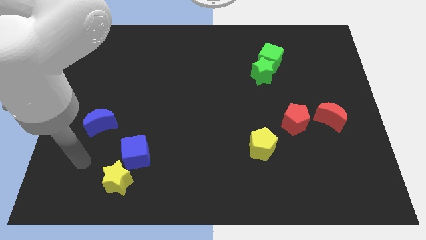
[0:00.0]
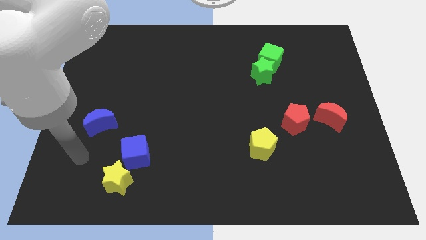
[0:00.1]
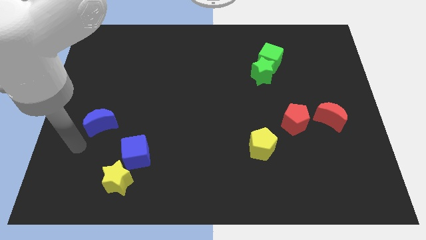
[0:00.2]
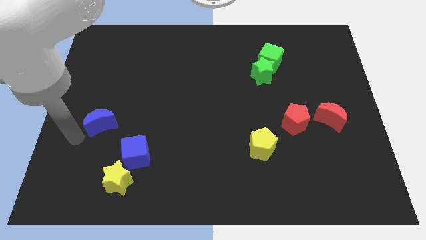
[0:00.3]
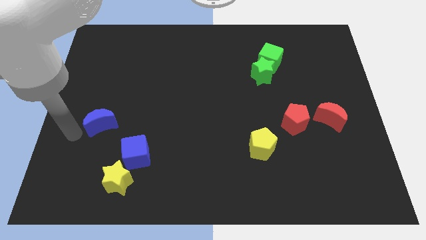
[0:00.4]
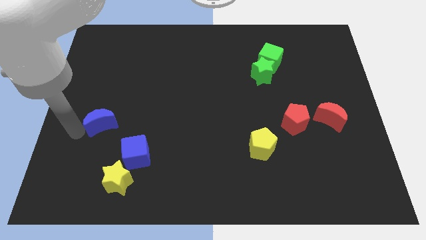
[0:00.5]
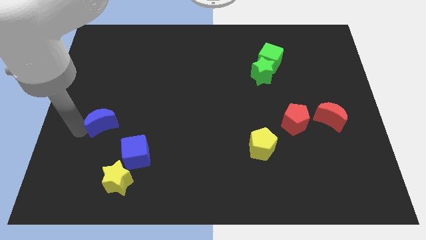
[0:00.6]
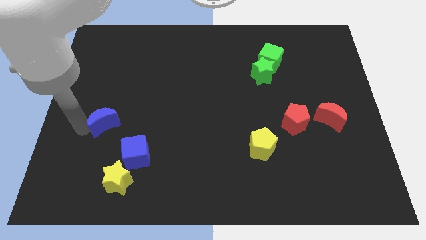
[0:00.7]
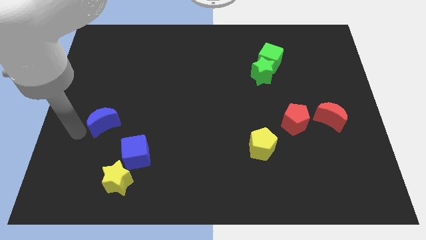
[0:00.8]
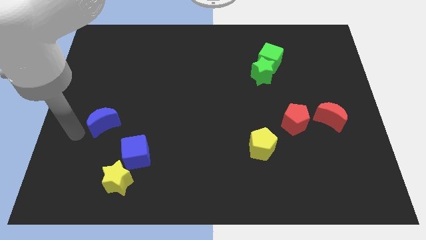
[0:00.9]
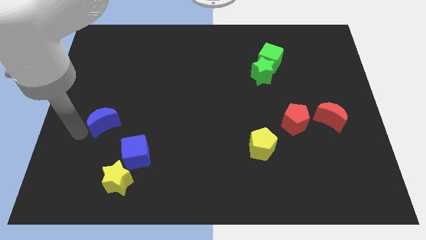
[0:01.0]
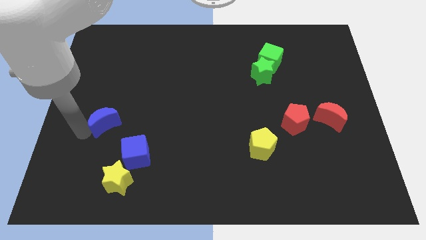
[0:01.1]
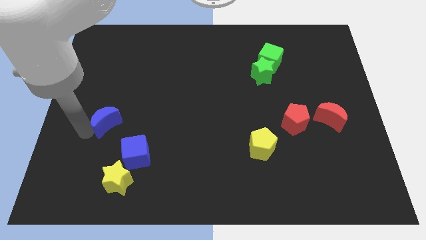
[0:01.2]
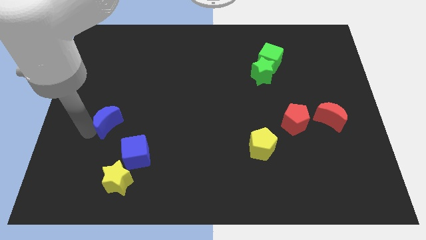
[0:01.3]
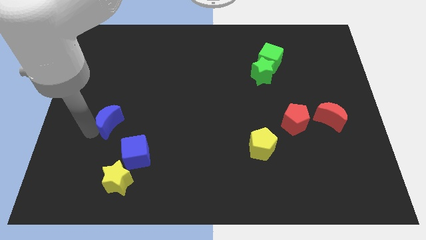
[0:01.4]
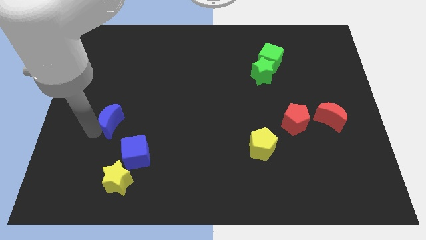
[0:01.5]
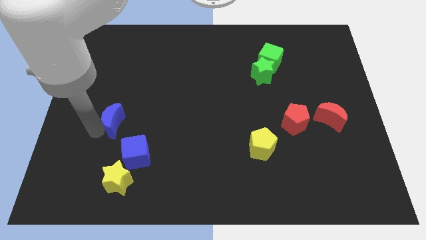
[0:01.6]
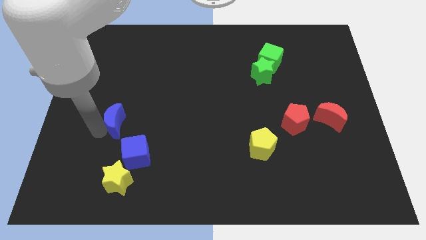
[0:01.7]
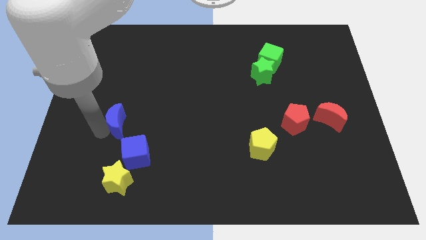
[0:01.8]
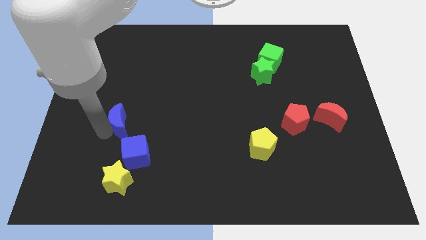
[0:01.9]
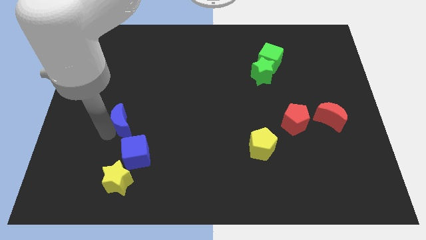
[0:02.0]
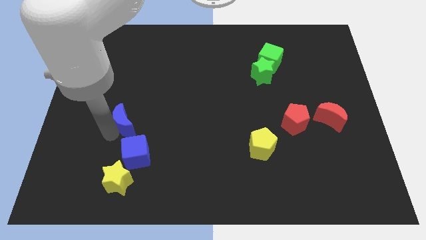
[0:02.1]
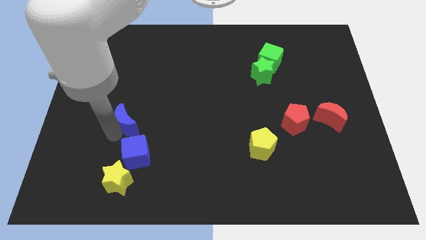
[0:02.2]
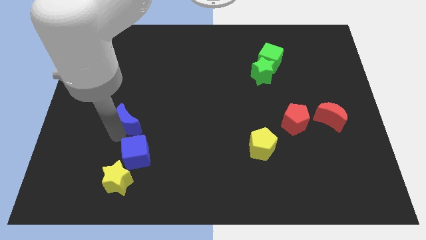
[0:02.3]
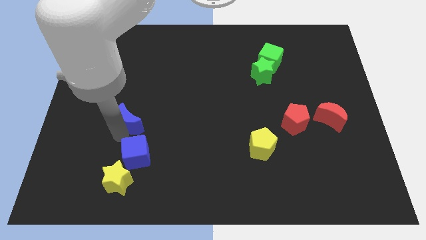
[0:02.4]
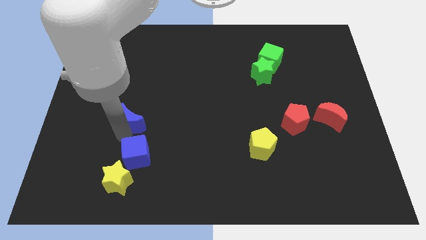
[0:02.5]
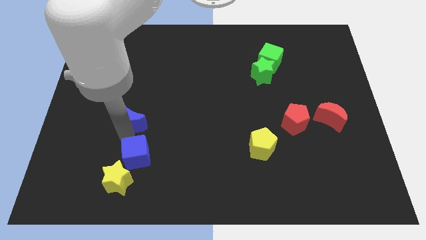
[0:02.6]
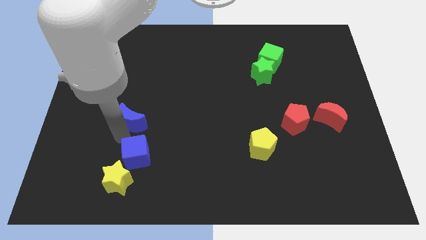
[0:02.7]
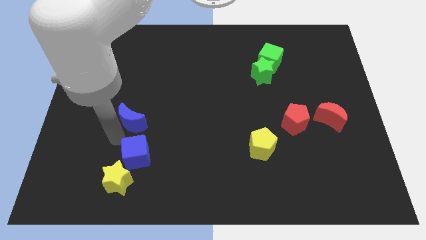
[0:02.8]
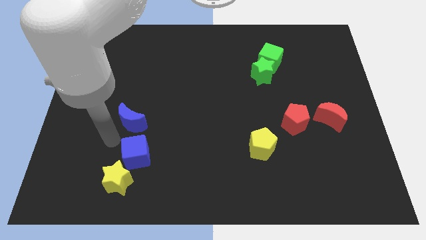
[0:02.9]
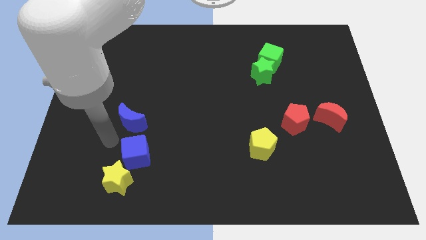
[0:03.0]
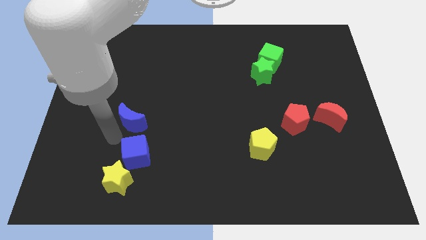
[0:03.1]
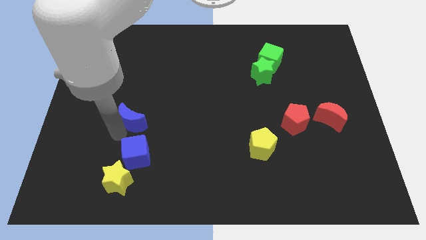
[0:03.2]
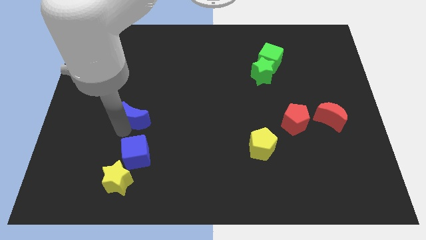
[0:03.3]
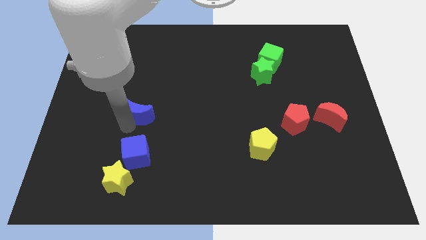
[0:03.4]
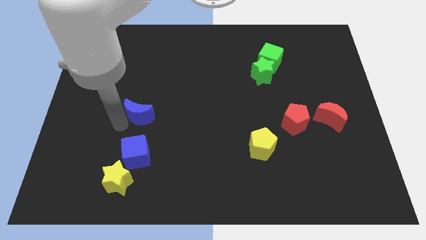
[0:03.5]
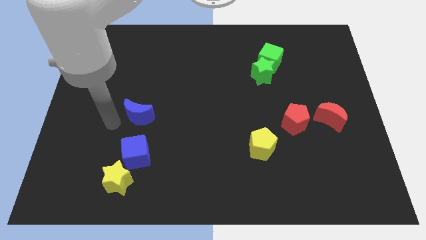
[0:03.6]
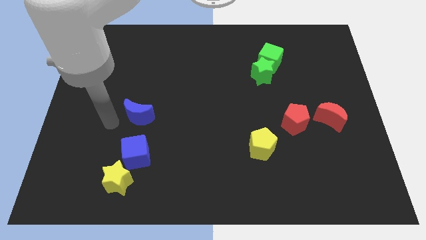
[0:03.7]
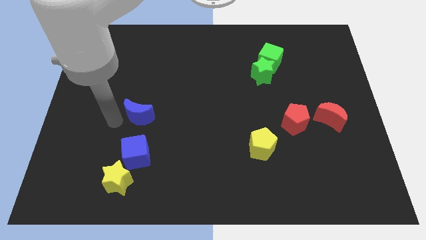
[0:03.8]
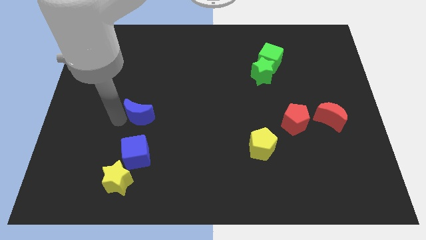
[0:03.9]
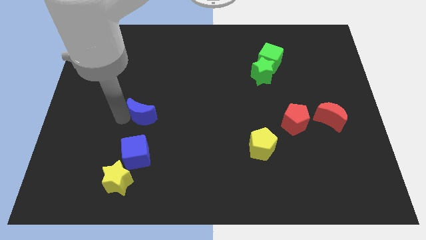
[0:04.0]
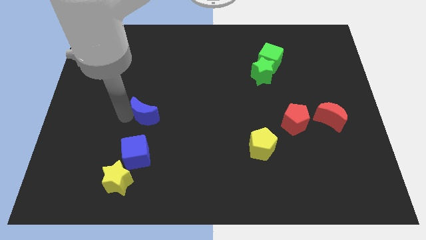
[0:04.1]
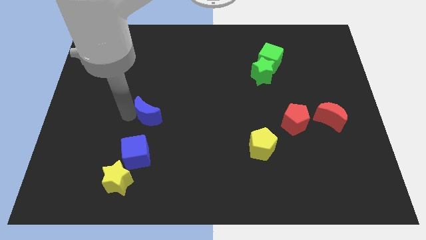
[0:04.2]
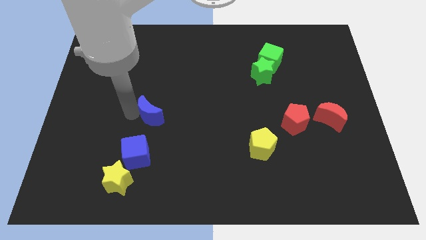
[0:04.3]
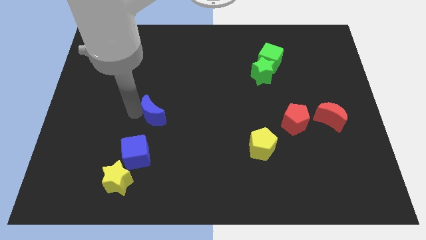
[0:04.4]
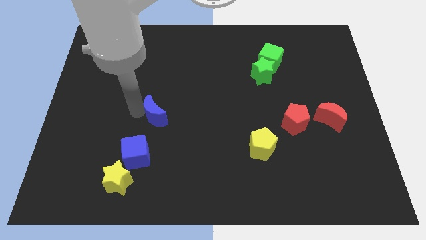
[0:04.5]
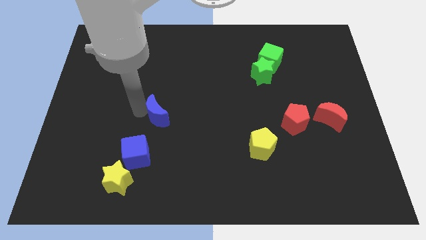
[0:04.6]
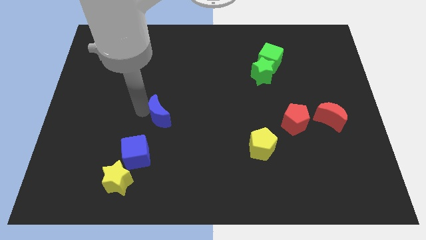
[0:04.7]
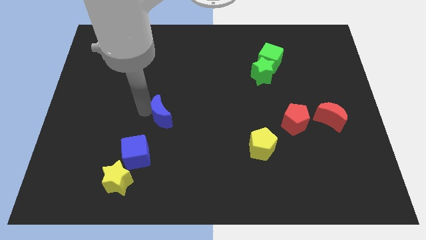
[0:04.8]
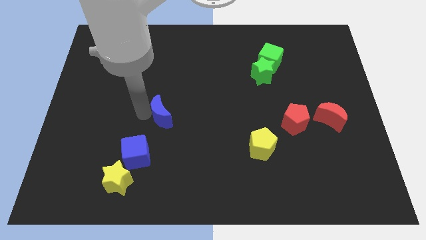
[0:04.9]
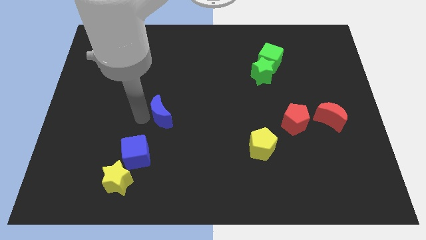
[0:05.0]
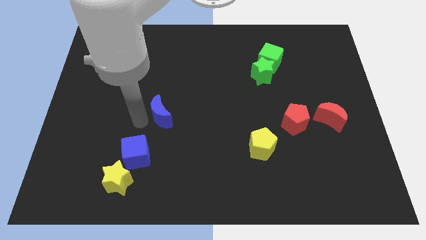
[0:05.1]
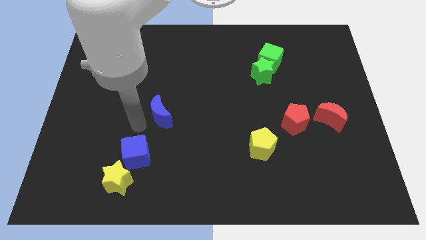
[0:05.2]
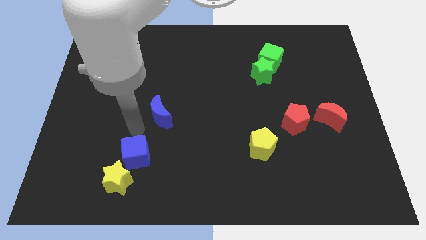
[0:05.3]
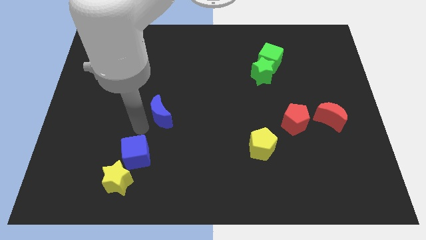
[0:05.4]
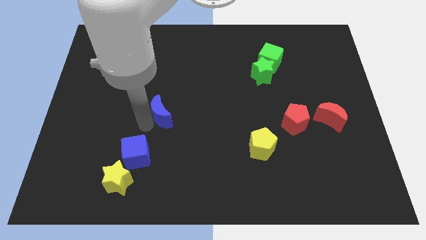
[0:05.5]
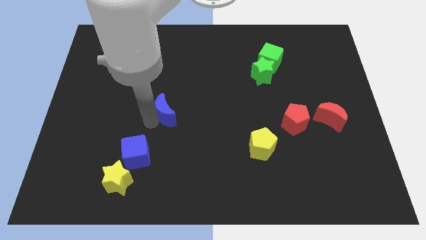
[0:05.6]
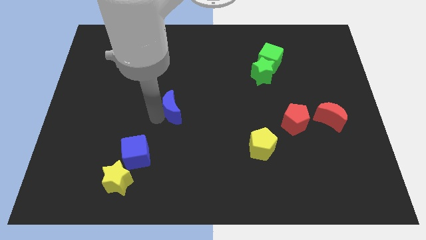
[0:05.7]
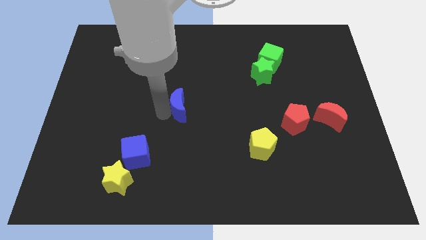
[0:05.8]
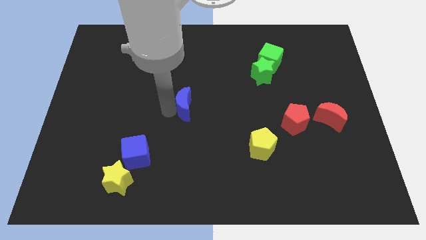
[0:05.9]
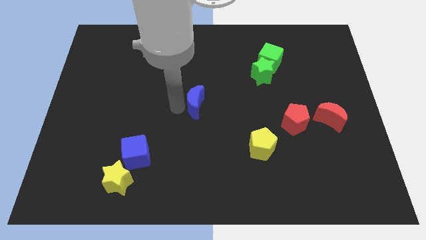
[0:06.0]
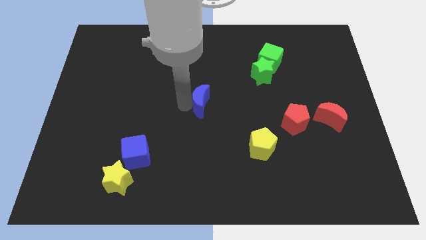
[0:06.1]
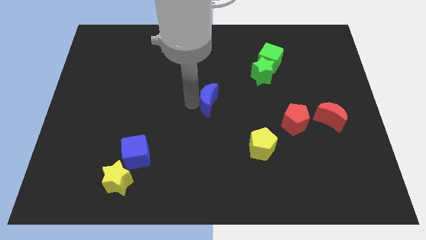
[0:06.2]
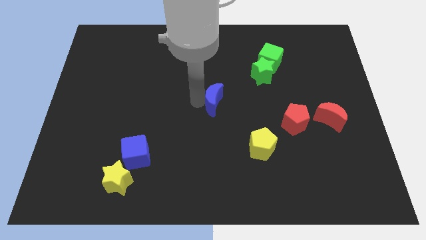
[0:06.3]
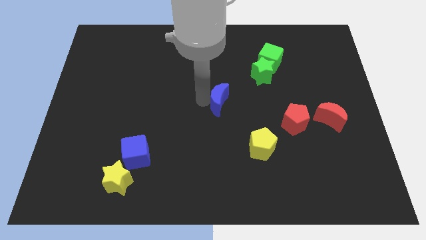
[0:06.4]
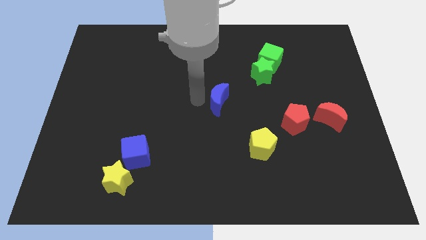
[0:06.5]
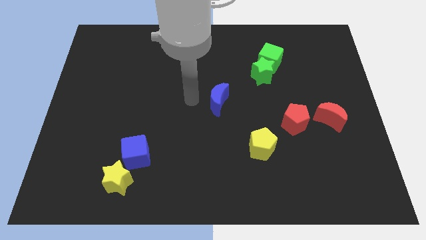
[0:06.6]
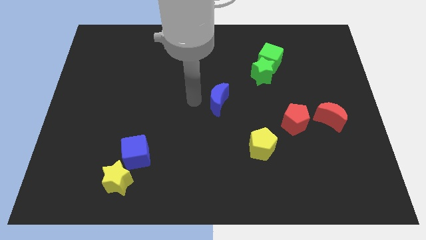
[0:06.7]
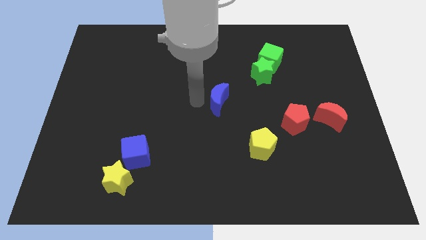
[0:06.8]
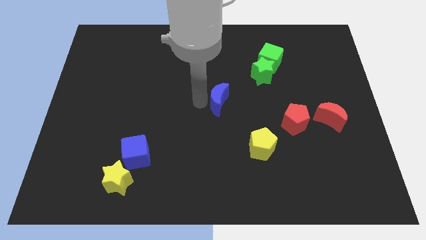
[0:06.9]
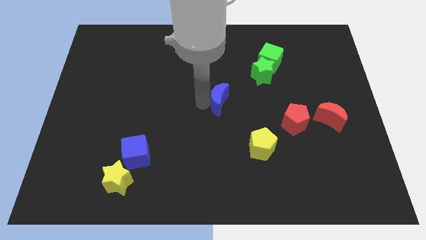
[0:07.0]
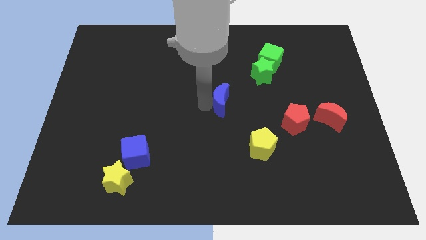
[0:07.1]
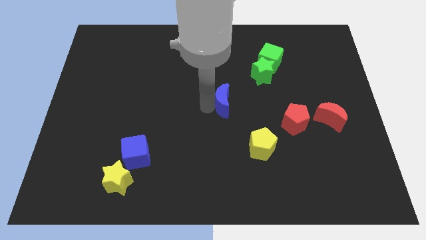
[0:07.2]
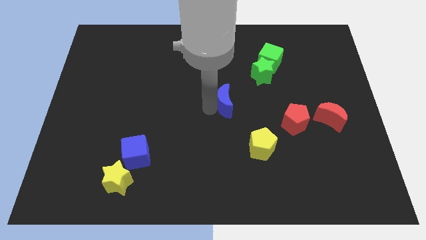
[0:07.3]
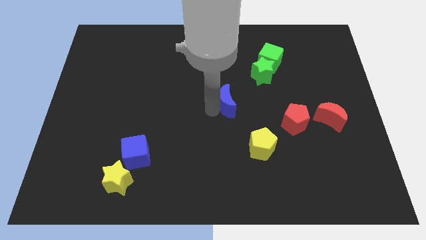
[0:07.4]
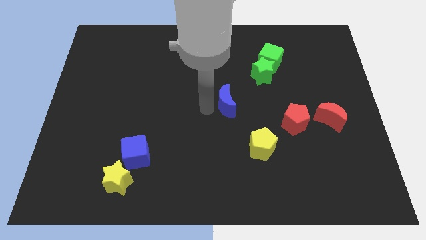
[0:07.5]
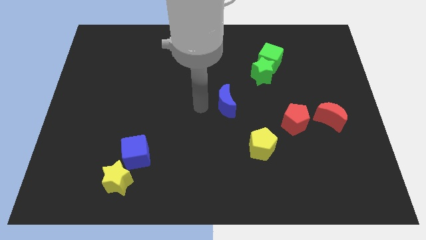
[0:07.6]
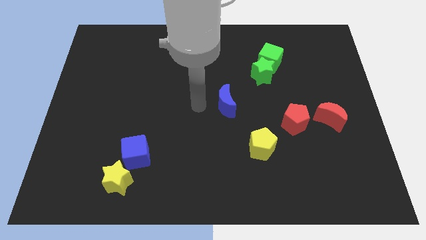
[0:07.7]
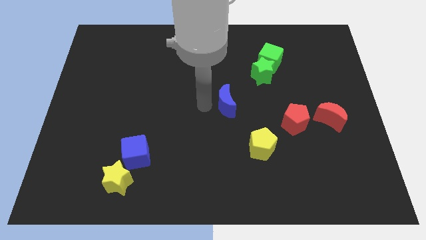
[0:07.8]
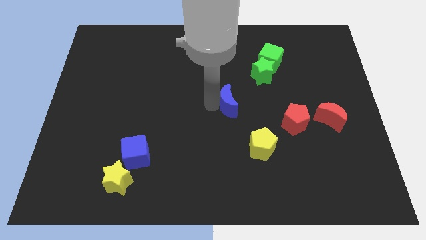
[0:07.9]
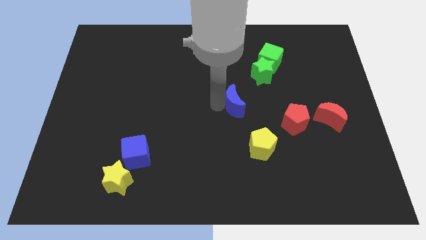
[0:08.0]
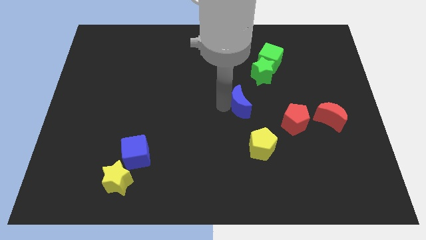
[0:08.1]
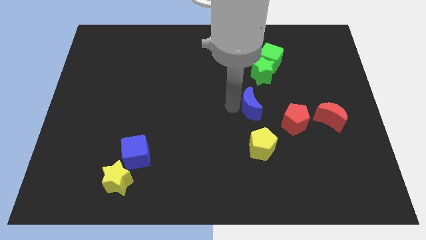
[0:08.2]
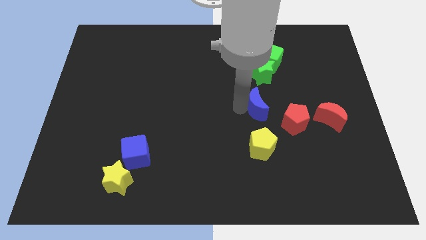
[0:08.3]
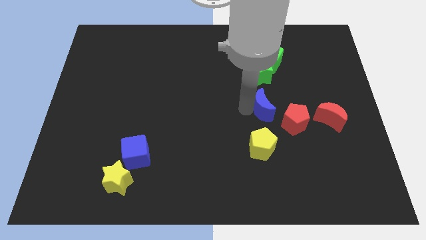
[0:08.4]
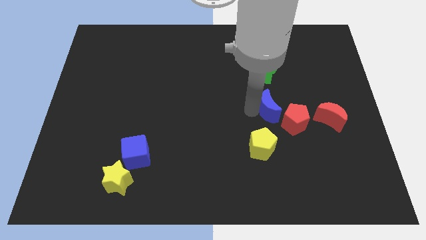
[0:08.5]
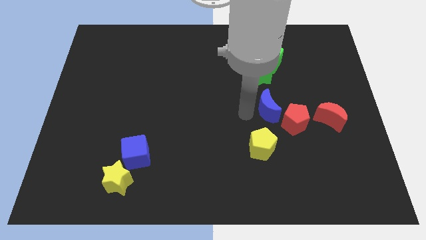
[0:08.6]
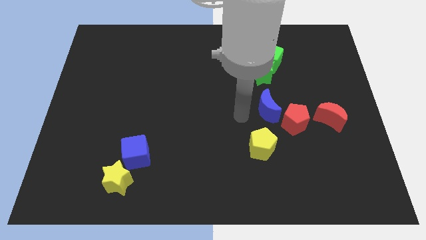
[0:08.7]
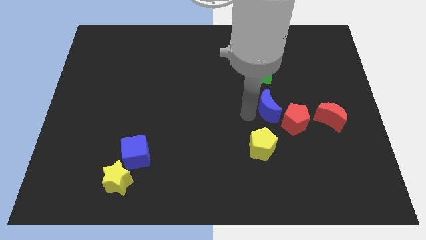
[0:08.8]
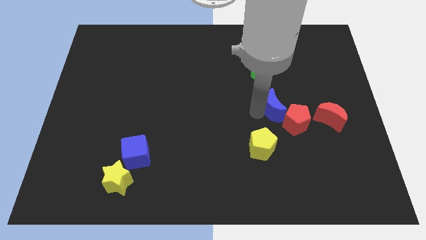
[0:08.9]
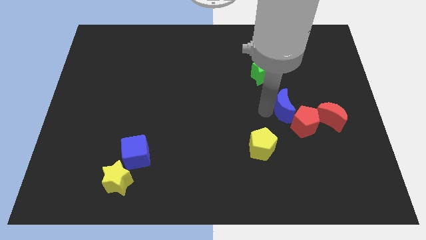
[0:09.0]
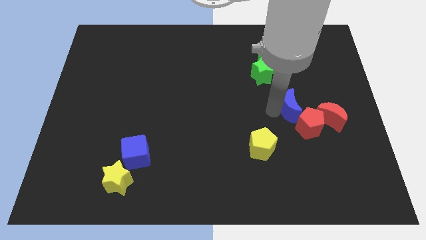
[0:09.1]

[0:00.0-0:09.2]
move the blue moon diagonally up and to the left of the red moon
